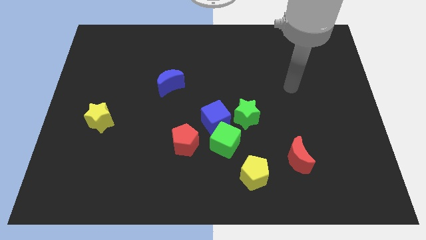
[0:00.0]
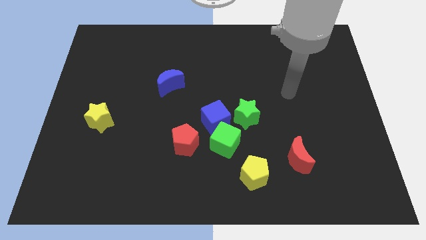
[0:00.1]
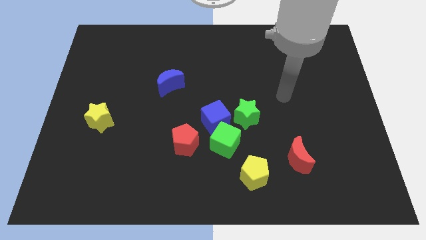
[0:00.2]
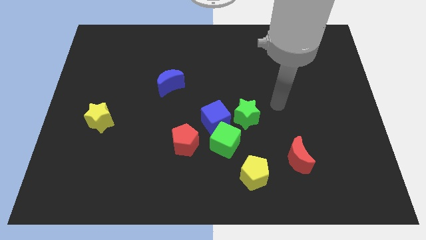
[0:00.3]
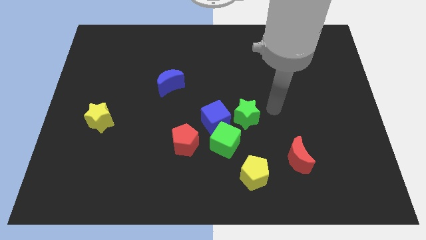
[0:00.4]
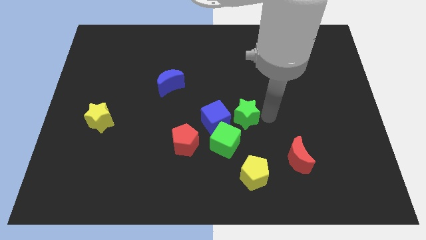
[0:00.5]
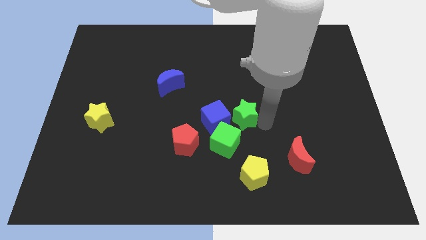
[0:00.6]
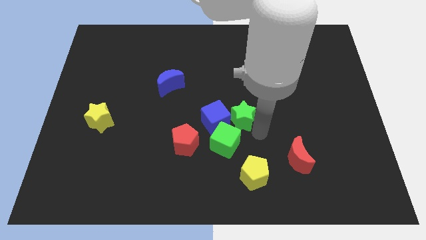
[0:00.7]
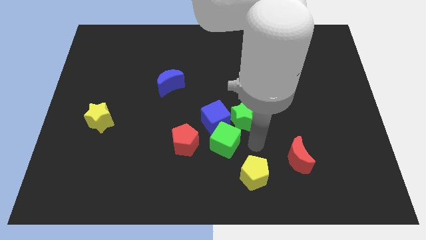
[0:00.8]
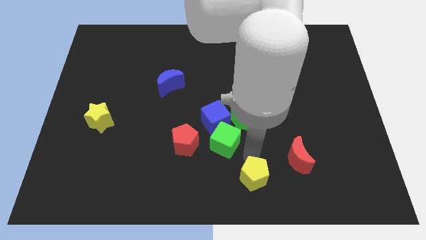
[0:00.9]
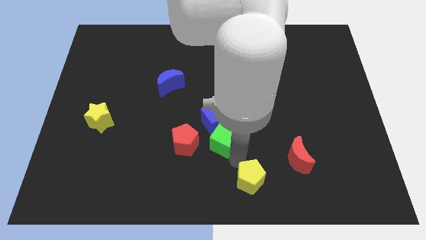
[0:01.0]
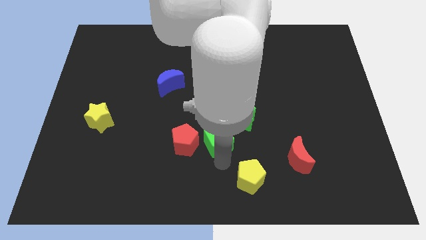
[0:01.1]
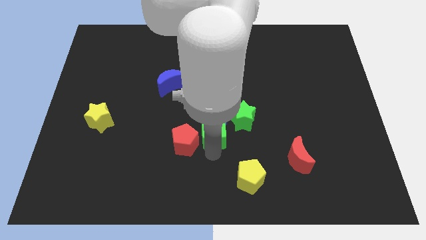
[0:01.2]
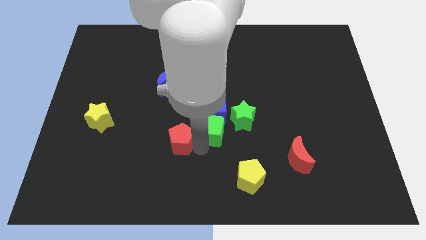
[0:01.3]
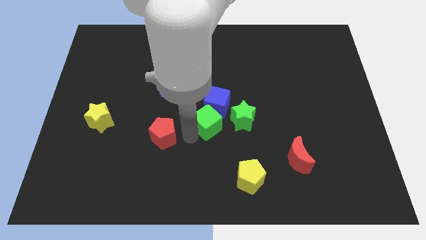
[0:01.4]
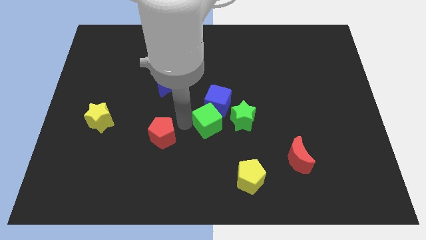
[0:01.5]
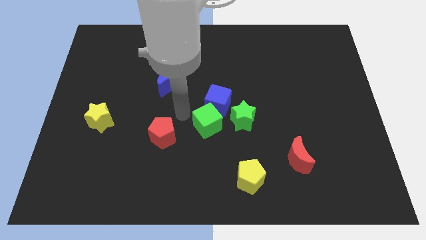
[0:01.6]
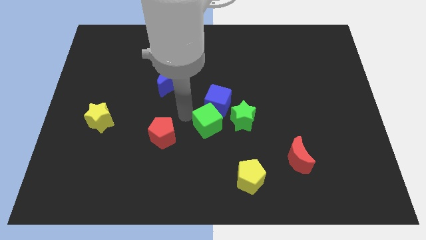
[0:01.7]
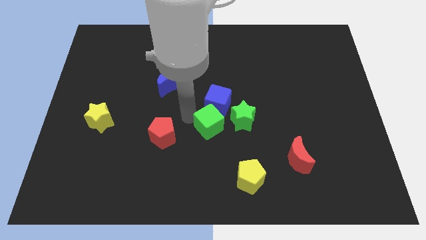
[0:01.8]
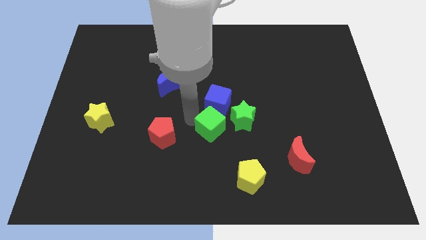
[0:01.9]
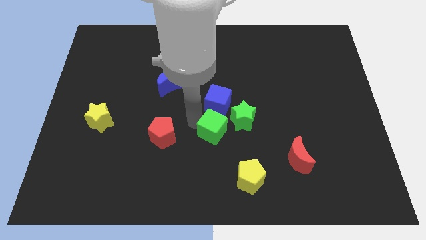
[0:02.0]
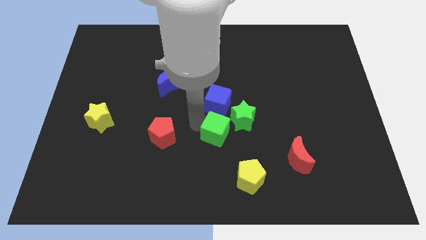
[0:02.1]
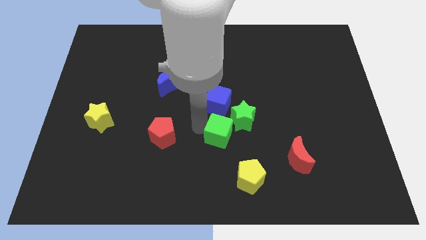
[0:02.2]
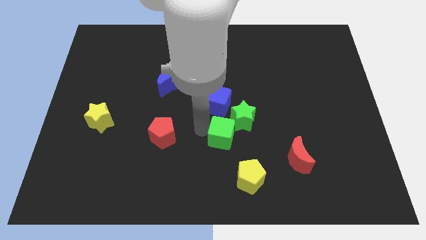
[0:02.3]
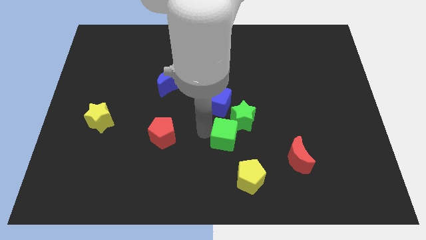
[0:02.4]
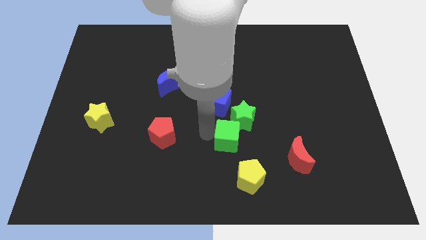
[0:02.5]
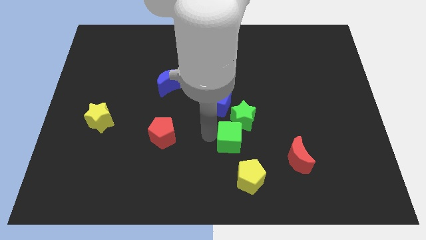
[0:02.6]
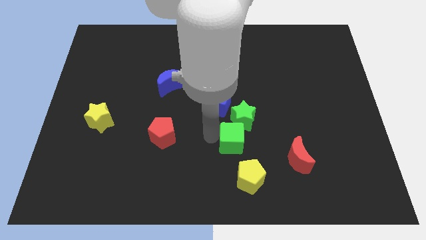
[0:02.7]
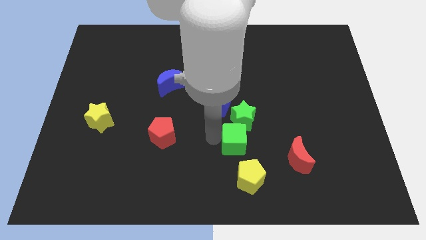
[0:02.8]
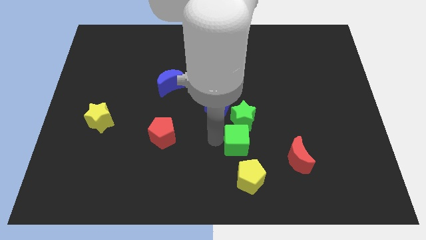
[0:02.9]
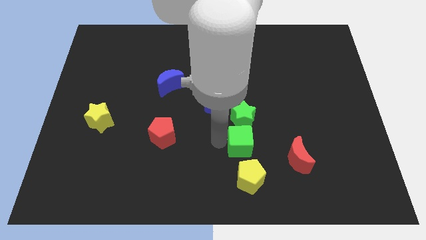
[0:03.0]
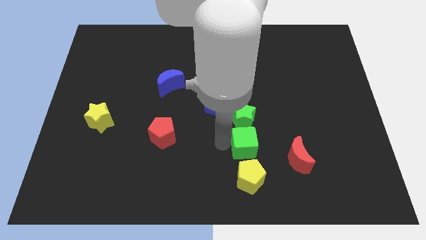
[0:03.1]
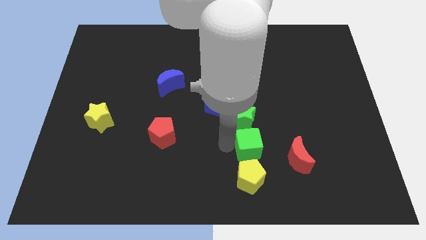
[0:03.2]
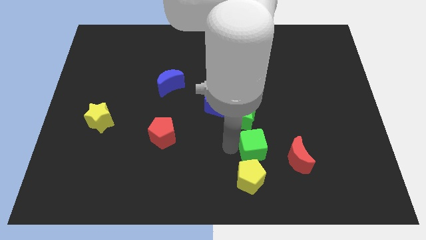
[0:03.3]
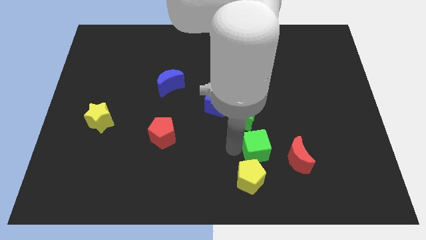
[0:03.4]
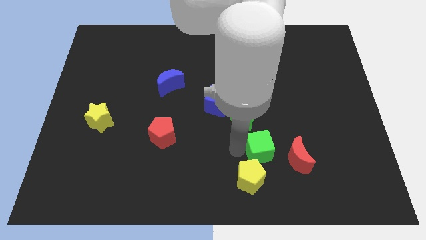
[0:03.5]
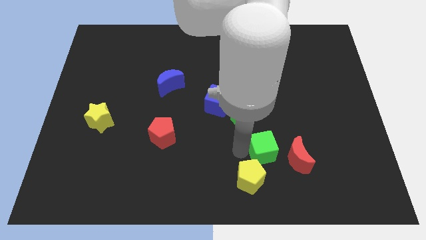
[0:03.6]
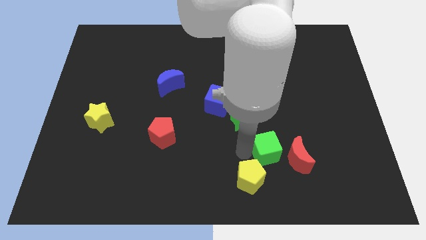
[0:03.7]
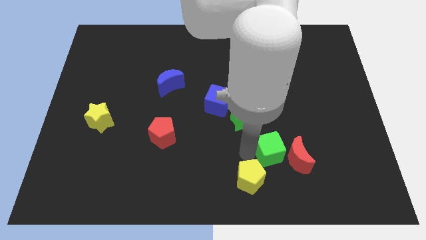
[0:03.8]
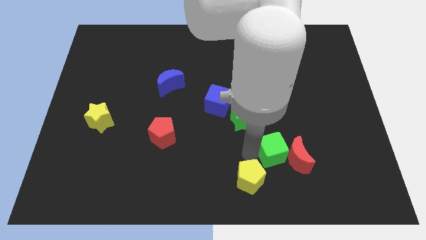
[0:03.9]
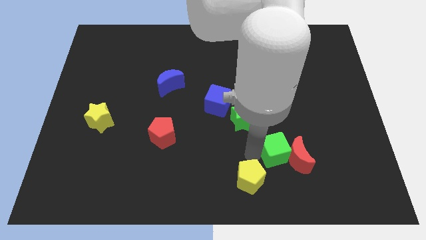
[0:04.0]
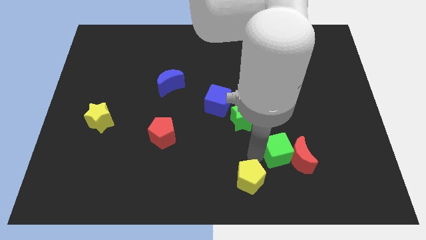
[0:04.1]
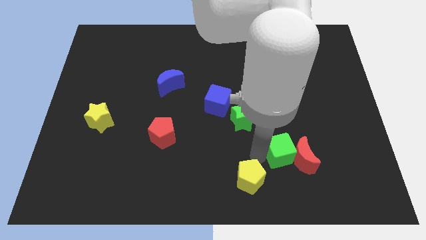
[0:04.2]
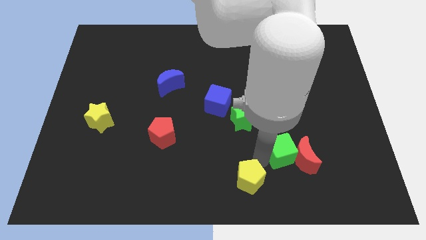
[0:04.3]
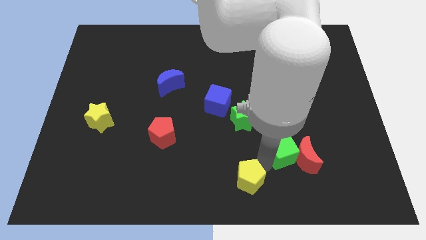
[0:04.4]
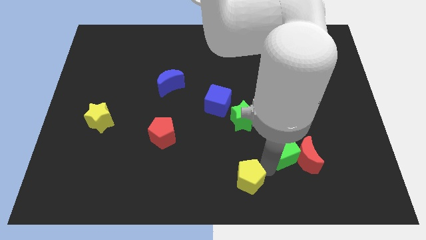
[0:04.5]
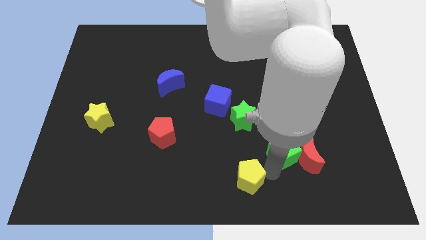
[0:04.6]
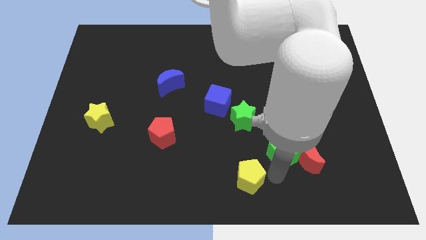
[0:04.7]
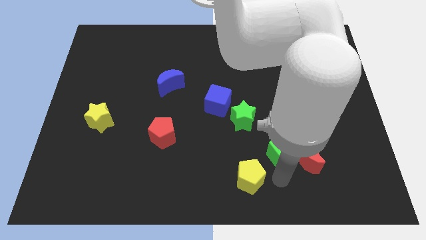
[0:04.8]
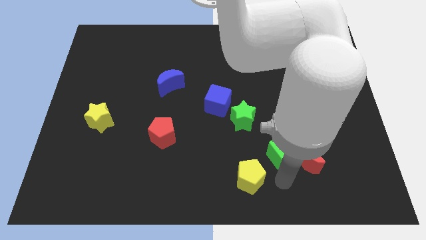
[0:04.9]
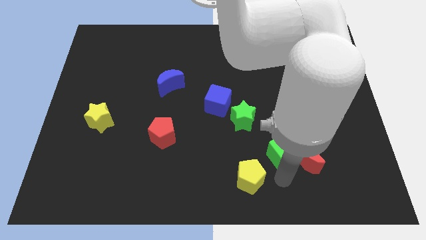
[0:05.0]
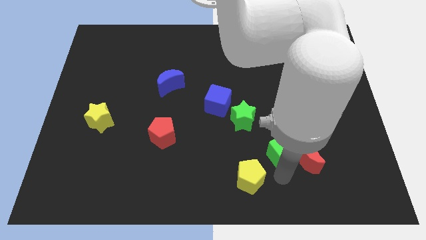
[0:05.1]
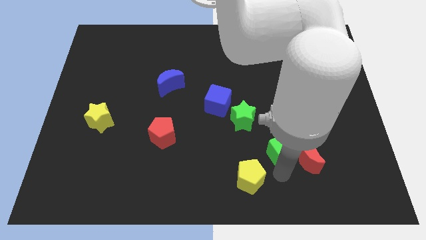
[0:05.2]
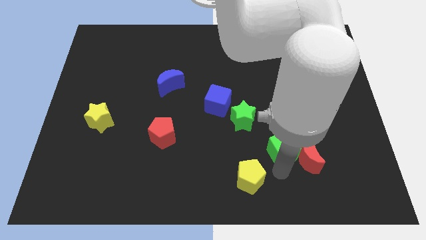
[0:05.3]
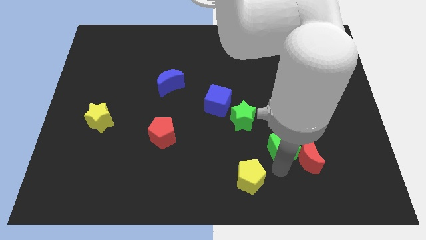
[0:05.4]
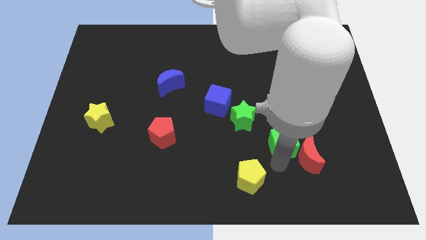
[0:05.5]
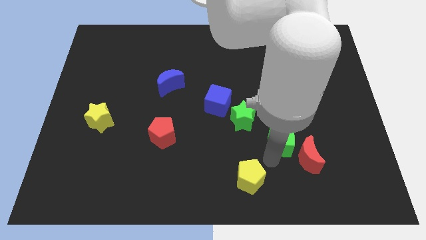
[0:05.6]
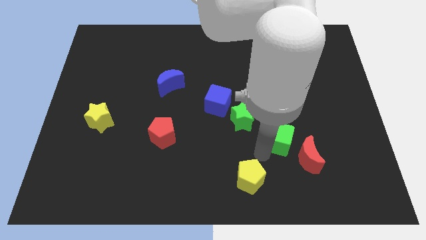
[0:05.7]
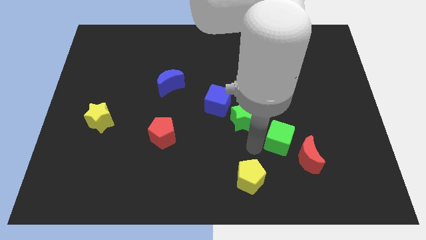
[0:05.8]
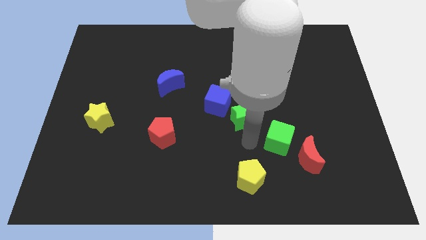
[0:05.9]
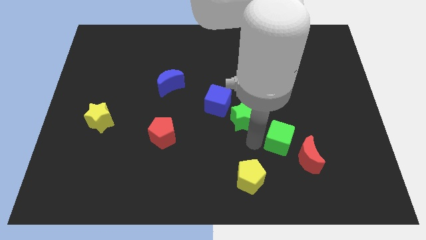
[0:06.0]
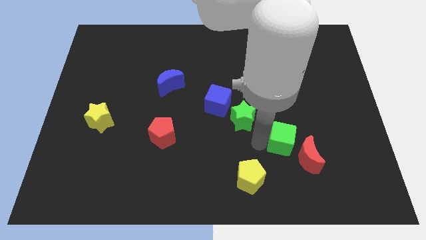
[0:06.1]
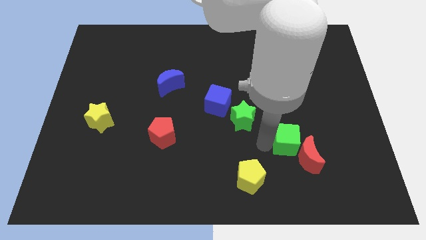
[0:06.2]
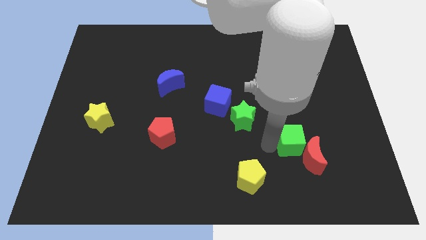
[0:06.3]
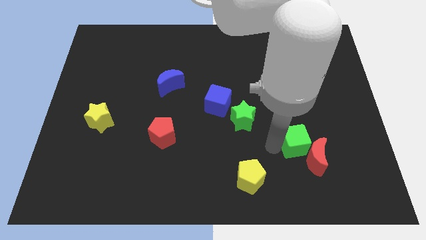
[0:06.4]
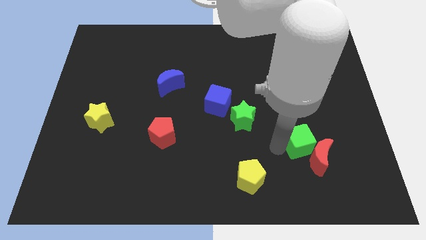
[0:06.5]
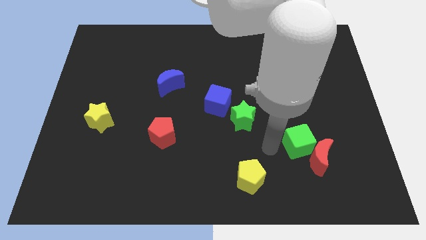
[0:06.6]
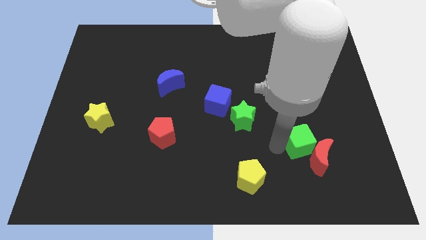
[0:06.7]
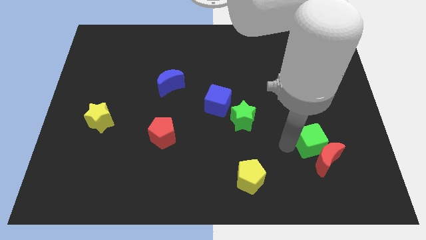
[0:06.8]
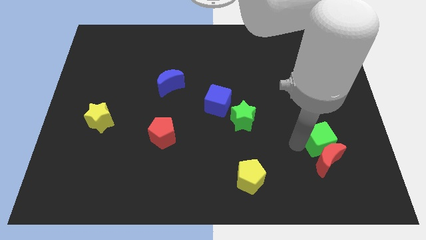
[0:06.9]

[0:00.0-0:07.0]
push the green cube to the top right of the red moon

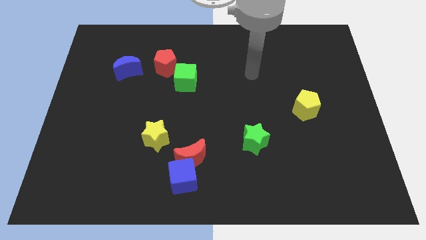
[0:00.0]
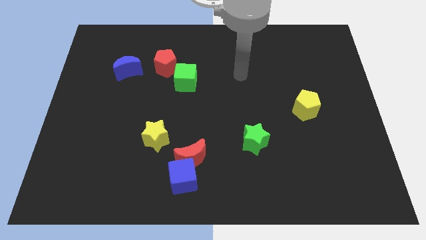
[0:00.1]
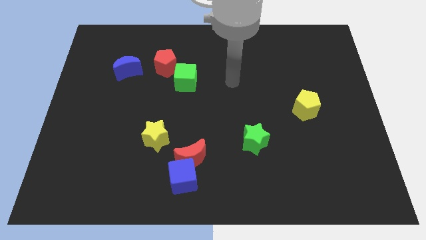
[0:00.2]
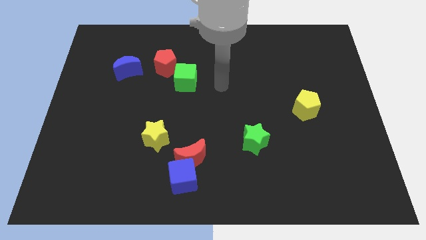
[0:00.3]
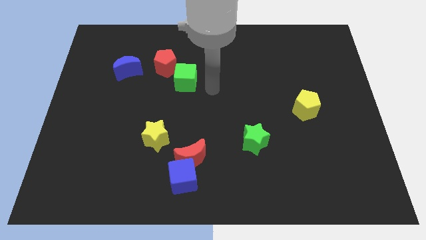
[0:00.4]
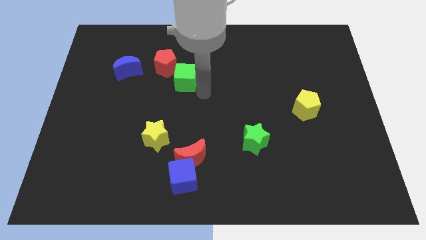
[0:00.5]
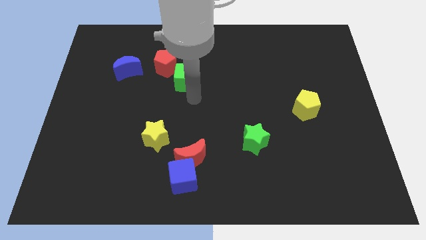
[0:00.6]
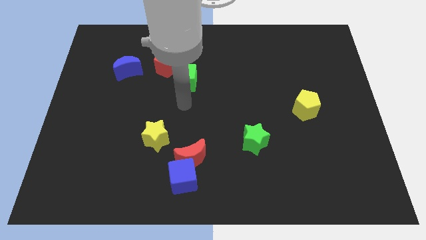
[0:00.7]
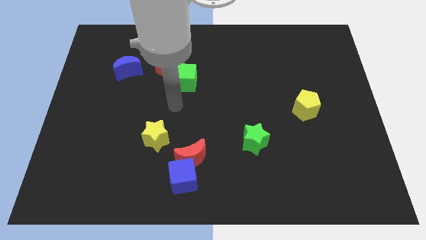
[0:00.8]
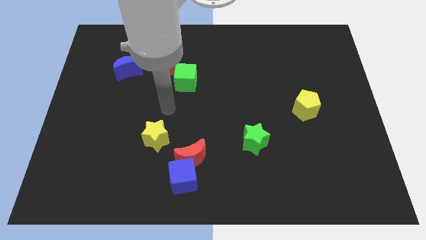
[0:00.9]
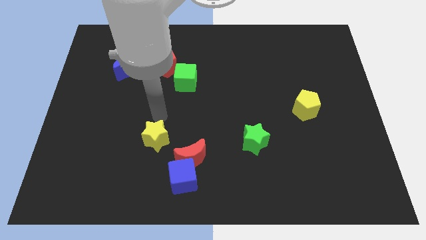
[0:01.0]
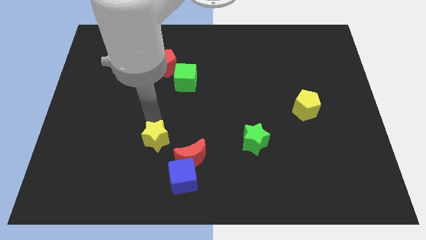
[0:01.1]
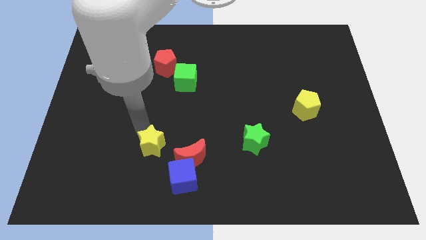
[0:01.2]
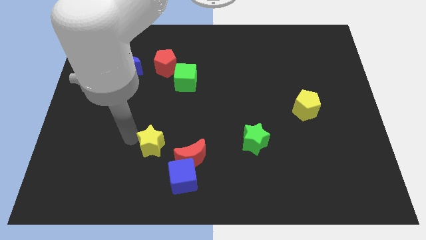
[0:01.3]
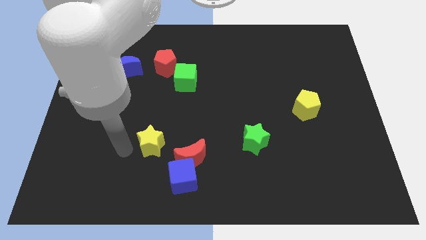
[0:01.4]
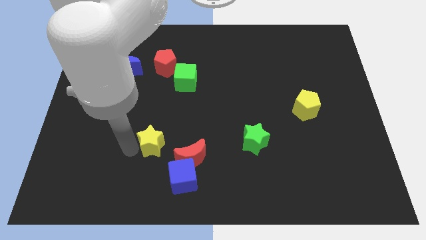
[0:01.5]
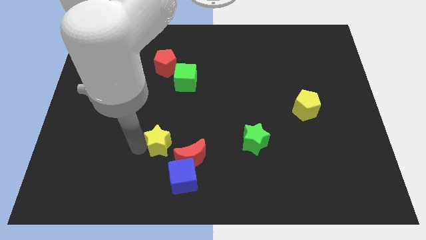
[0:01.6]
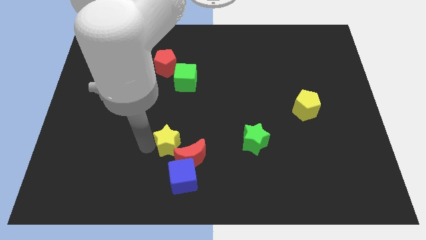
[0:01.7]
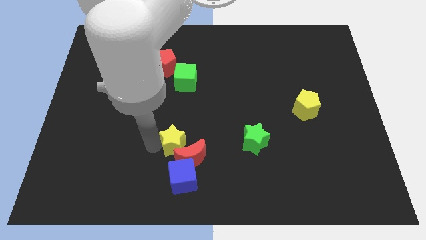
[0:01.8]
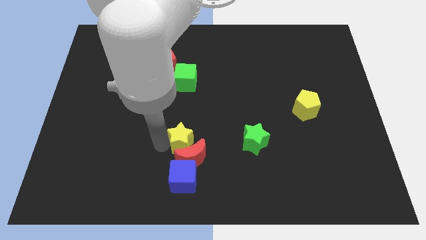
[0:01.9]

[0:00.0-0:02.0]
slide the yellow star left of the green star
